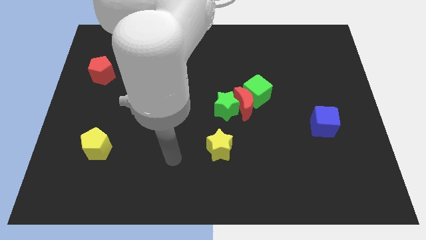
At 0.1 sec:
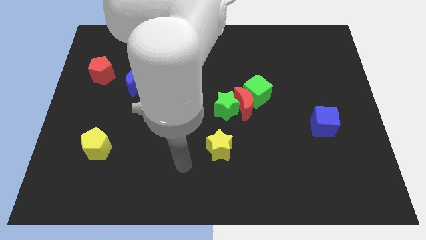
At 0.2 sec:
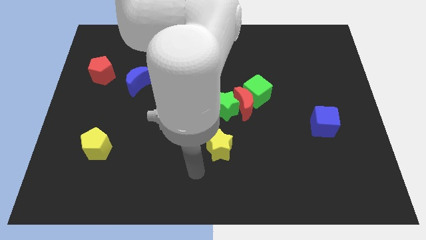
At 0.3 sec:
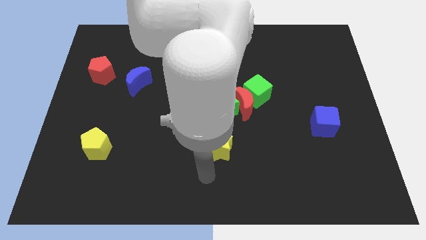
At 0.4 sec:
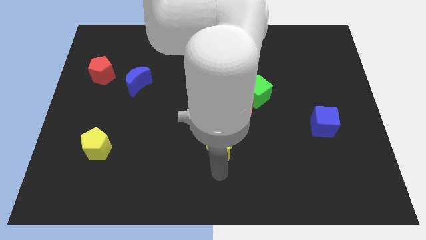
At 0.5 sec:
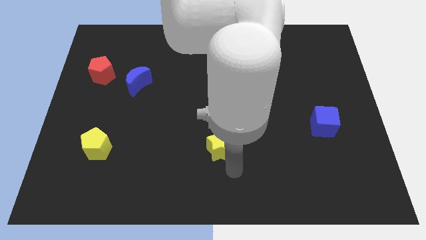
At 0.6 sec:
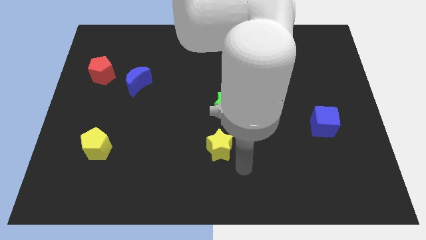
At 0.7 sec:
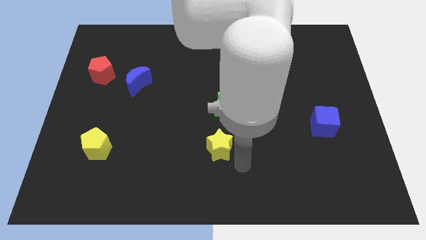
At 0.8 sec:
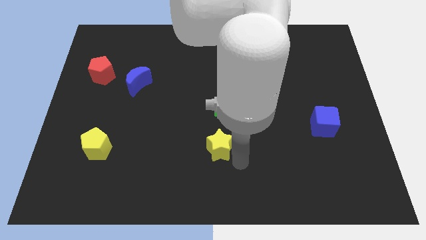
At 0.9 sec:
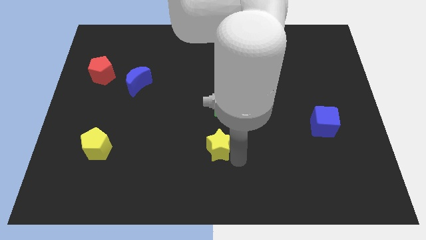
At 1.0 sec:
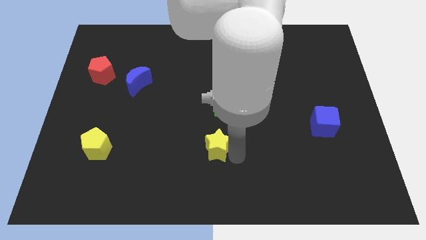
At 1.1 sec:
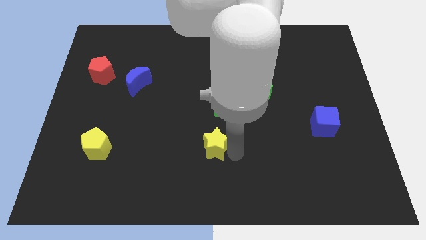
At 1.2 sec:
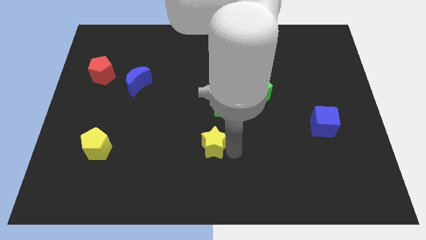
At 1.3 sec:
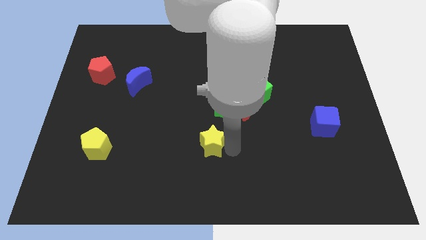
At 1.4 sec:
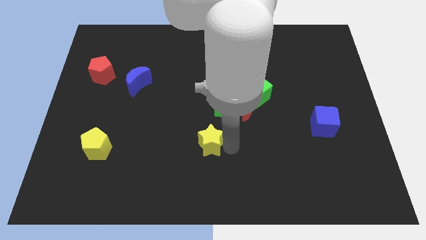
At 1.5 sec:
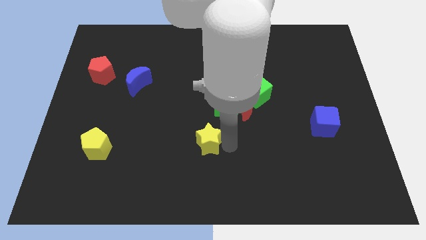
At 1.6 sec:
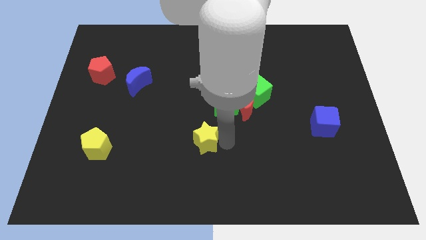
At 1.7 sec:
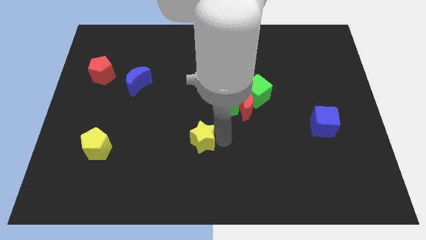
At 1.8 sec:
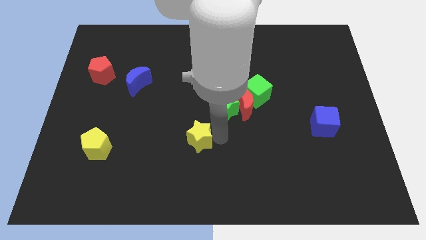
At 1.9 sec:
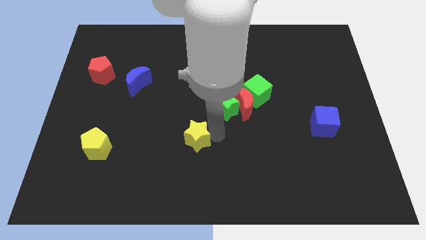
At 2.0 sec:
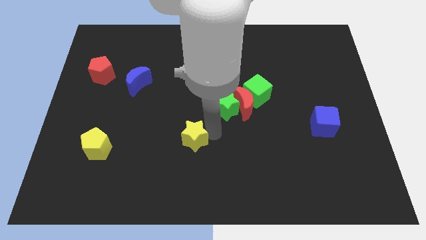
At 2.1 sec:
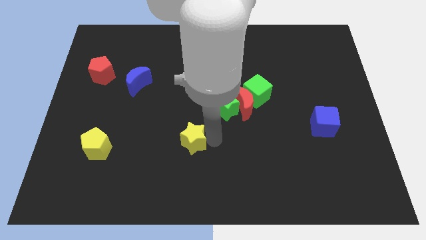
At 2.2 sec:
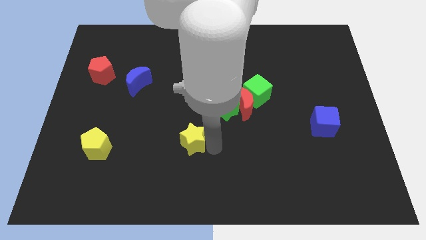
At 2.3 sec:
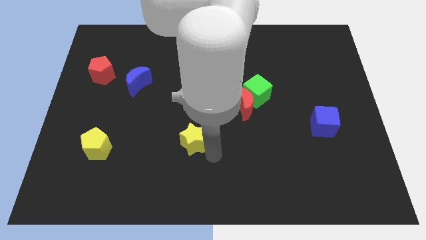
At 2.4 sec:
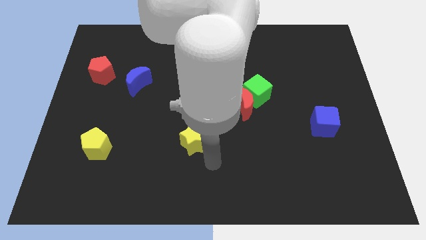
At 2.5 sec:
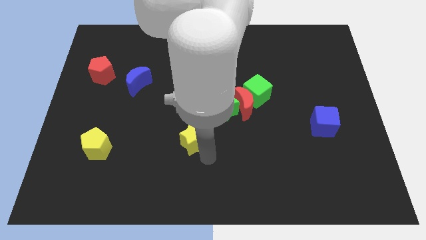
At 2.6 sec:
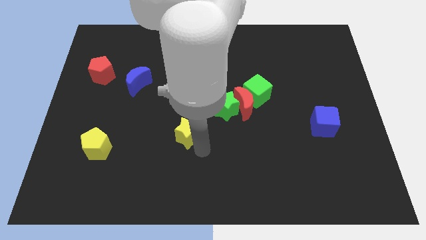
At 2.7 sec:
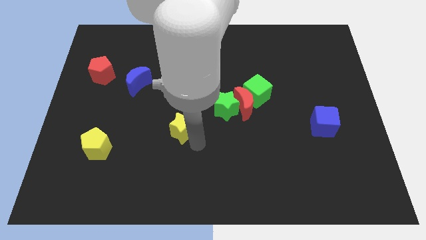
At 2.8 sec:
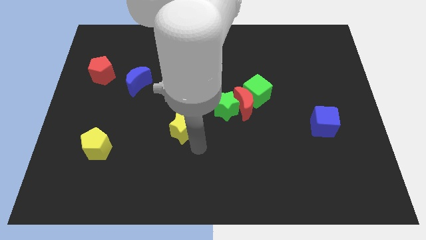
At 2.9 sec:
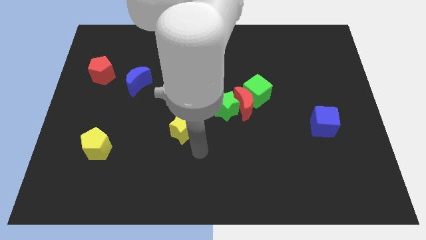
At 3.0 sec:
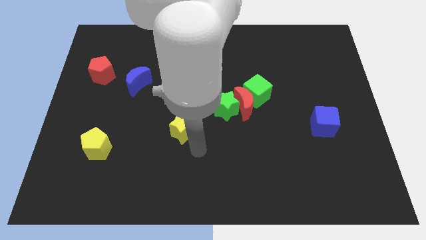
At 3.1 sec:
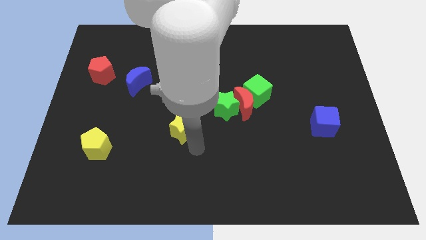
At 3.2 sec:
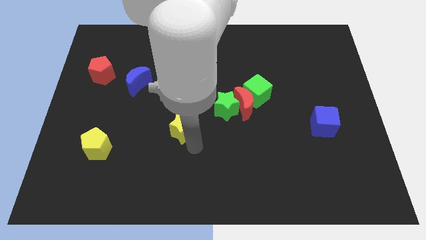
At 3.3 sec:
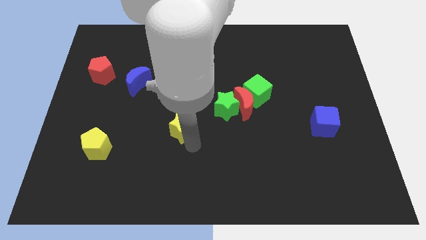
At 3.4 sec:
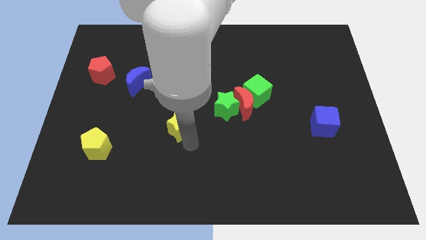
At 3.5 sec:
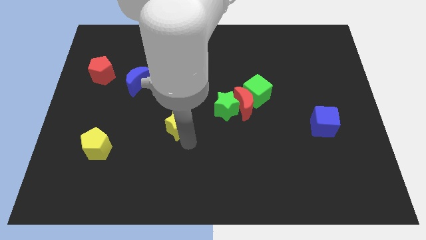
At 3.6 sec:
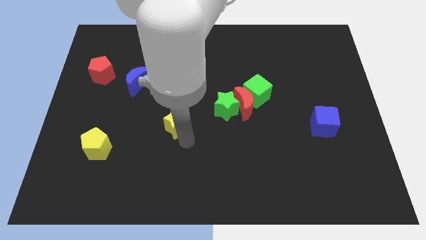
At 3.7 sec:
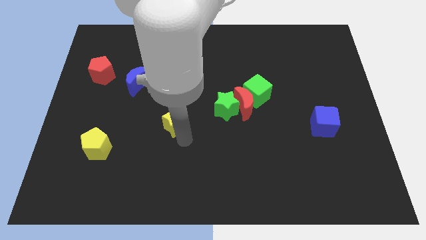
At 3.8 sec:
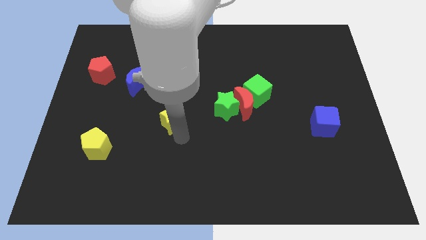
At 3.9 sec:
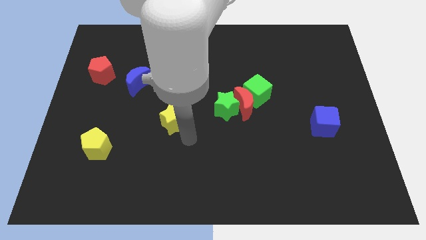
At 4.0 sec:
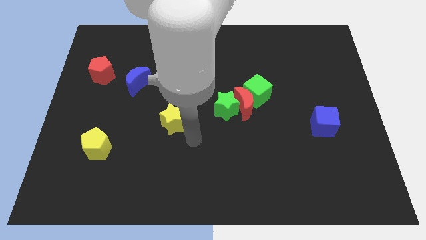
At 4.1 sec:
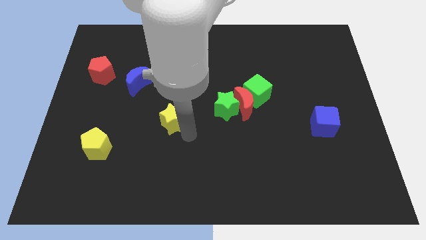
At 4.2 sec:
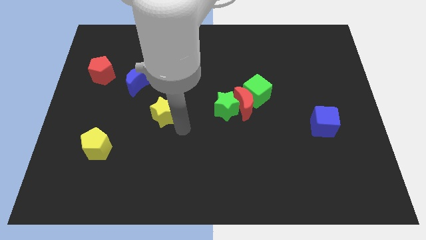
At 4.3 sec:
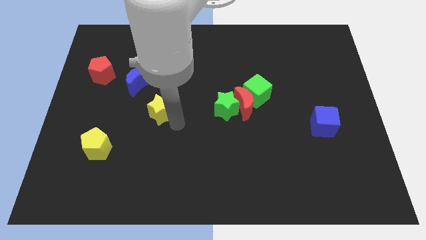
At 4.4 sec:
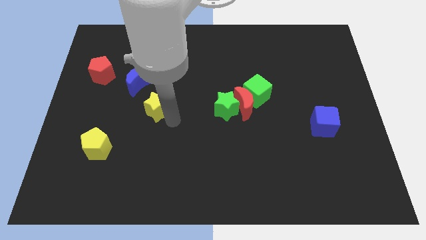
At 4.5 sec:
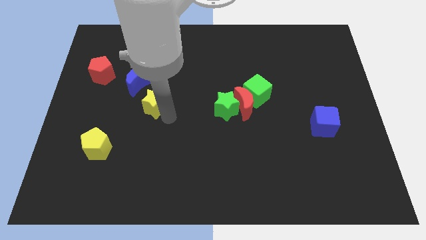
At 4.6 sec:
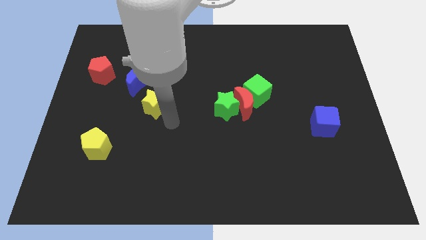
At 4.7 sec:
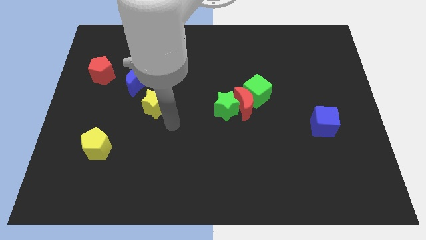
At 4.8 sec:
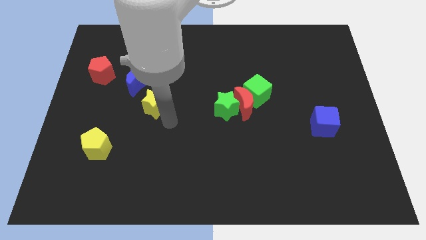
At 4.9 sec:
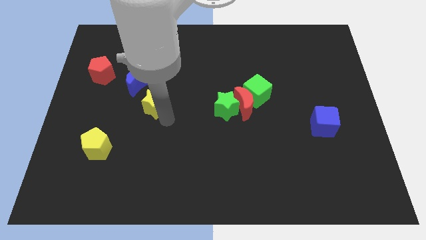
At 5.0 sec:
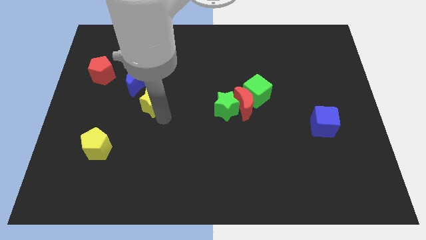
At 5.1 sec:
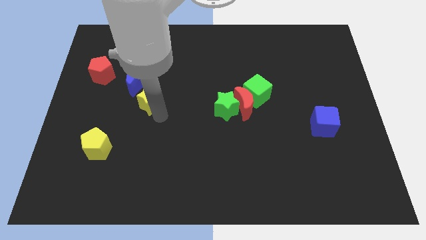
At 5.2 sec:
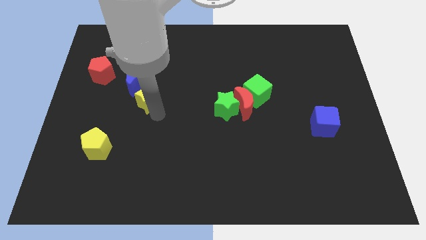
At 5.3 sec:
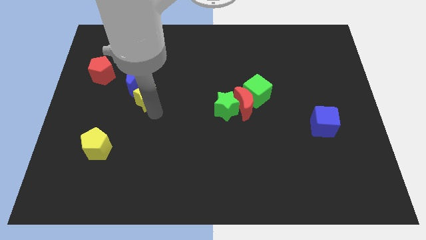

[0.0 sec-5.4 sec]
slide the yellow star close to the blue moon

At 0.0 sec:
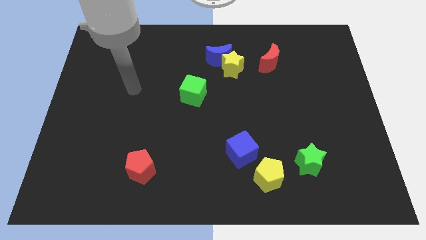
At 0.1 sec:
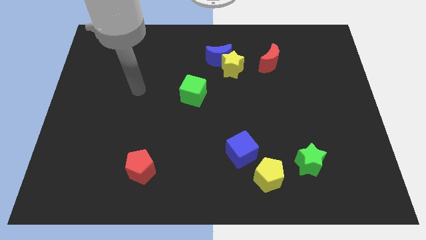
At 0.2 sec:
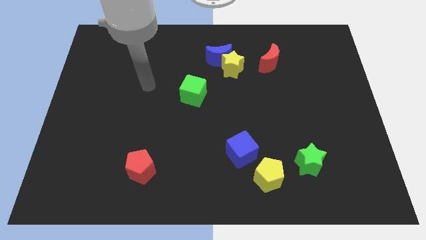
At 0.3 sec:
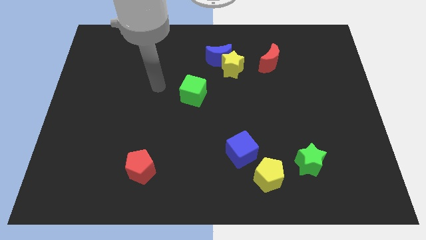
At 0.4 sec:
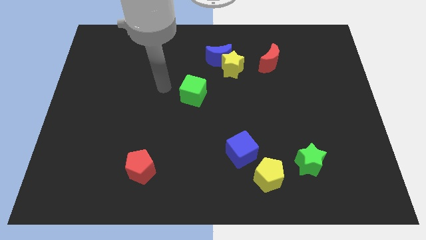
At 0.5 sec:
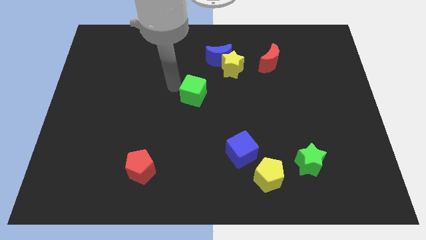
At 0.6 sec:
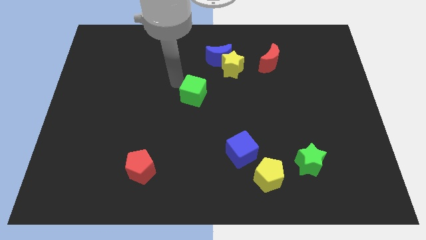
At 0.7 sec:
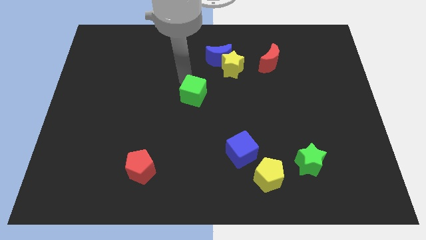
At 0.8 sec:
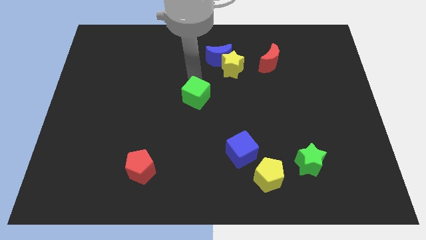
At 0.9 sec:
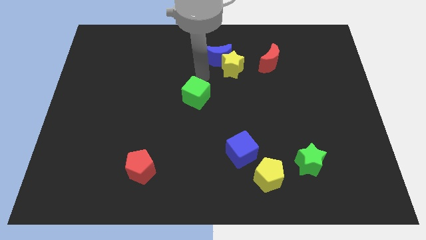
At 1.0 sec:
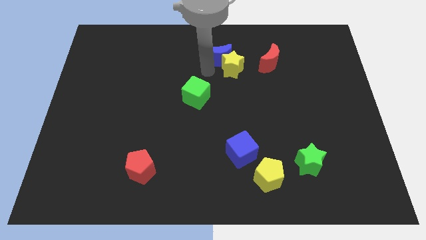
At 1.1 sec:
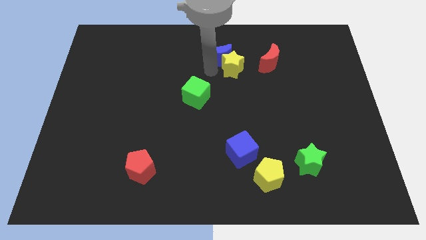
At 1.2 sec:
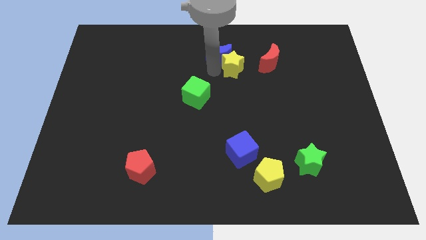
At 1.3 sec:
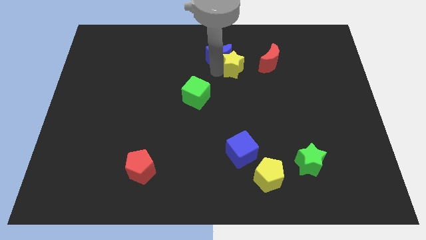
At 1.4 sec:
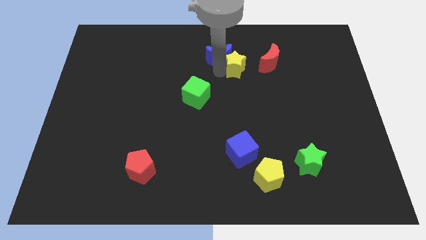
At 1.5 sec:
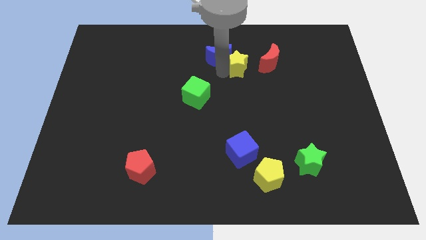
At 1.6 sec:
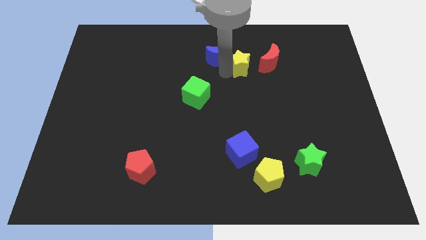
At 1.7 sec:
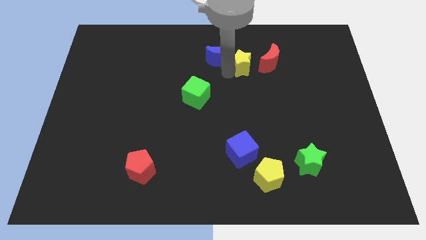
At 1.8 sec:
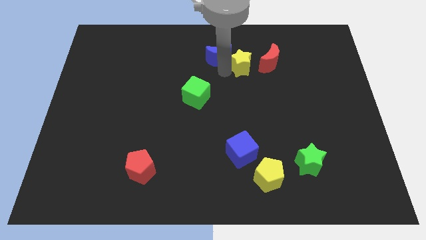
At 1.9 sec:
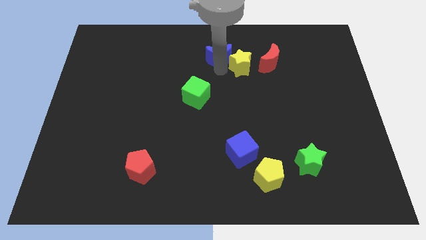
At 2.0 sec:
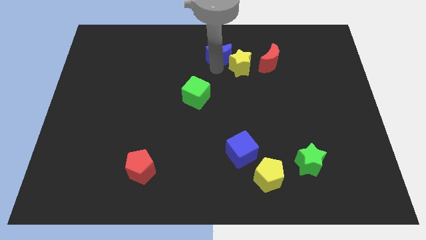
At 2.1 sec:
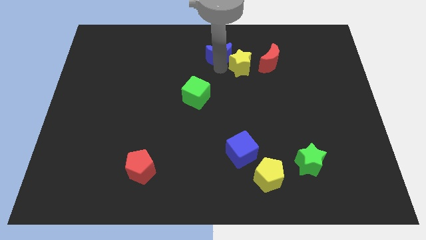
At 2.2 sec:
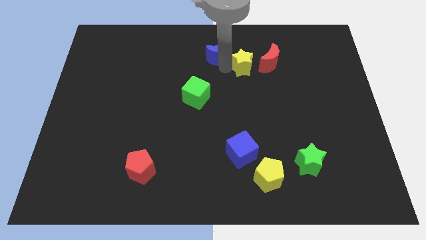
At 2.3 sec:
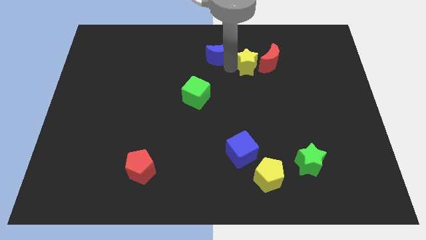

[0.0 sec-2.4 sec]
put the yellow star next to the red moon

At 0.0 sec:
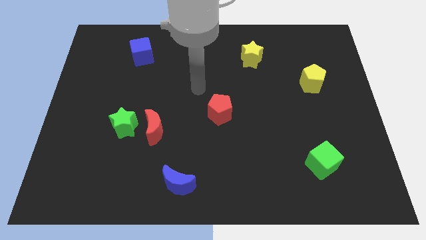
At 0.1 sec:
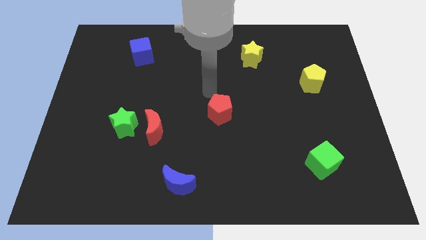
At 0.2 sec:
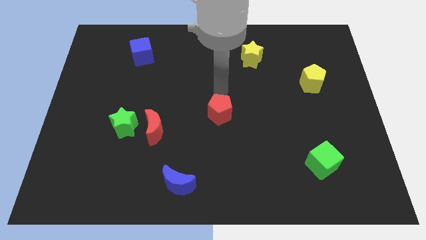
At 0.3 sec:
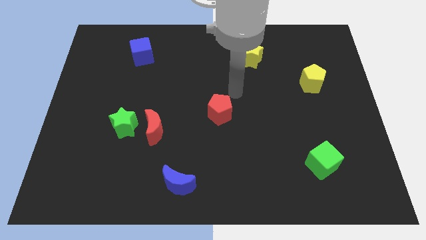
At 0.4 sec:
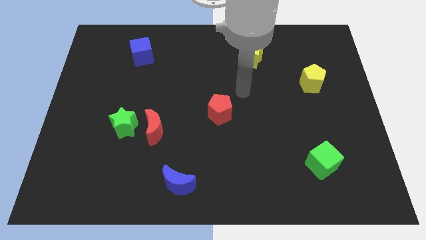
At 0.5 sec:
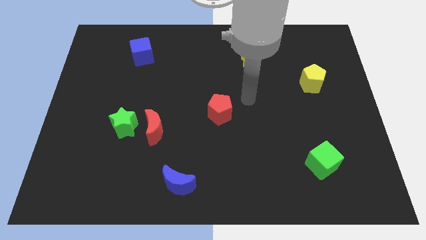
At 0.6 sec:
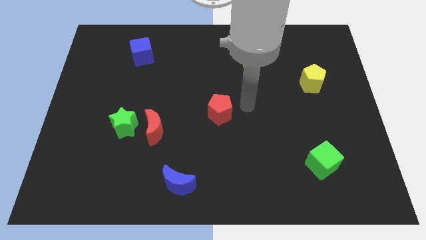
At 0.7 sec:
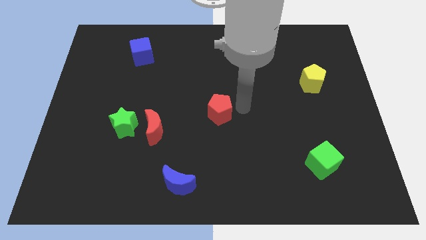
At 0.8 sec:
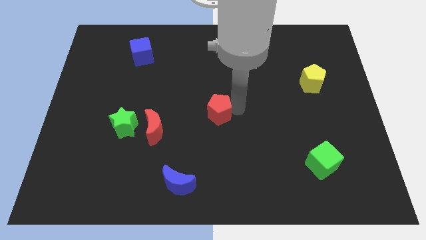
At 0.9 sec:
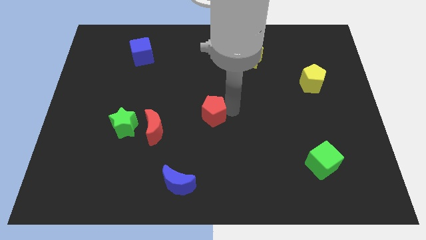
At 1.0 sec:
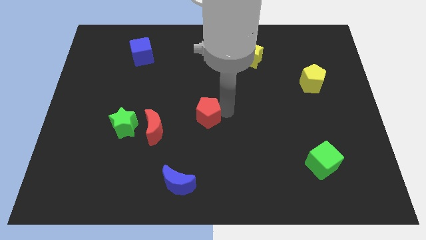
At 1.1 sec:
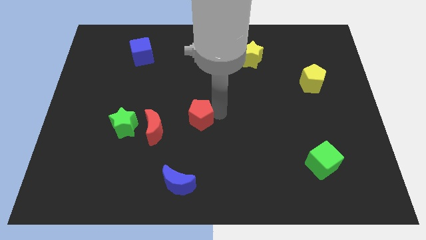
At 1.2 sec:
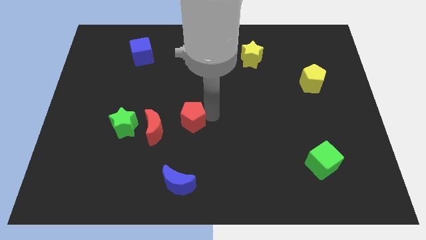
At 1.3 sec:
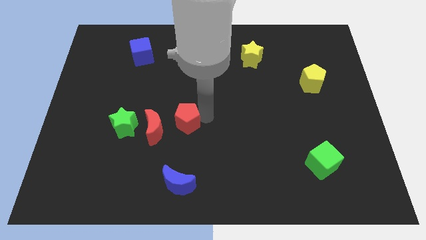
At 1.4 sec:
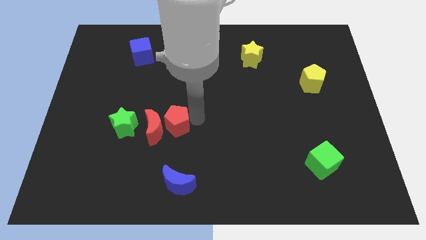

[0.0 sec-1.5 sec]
push the red pentagon close to the red moon
